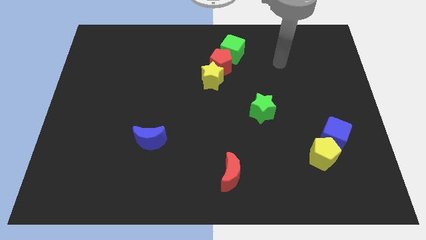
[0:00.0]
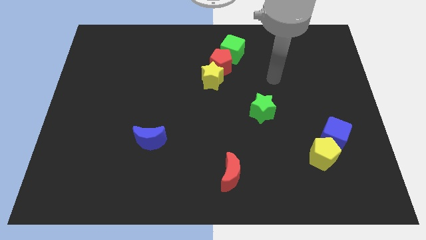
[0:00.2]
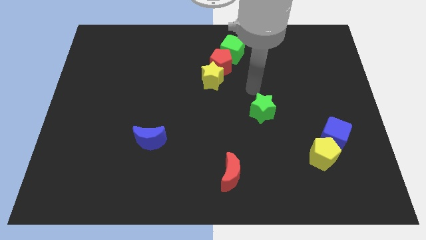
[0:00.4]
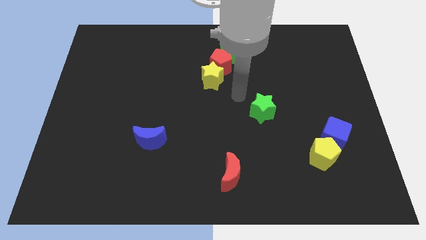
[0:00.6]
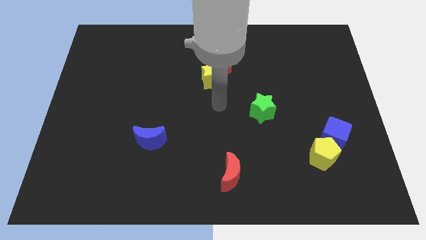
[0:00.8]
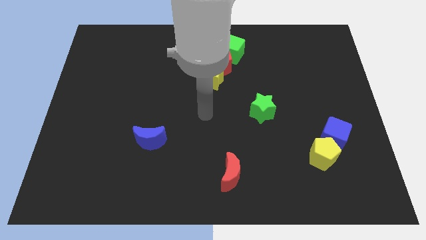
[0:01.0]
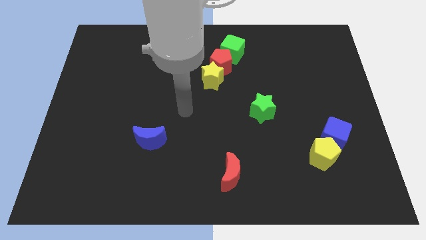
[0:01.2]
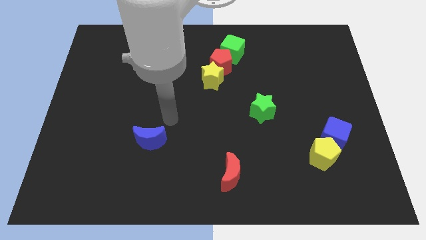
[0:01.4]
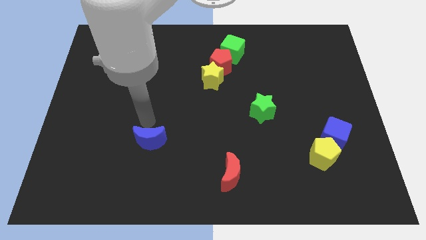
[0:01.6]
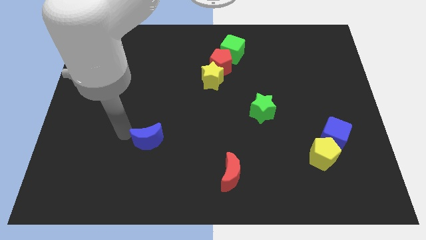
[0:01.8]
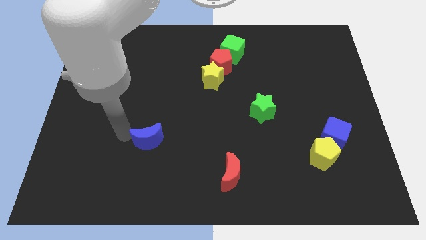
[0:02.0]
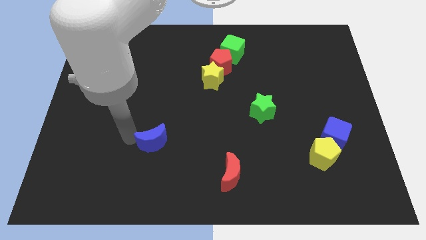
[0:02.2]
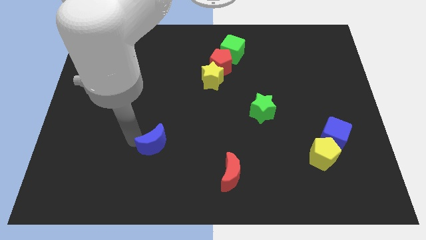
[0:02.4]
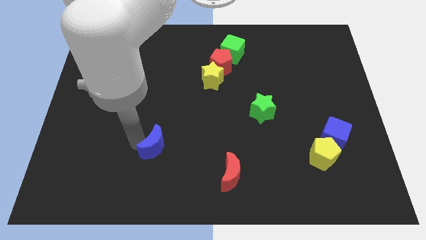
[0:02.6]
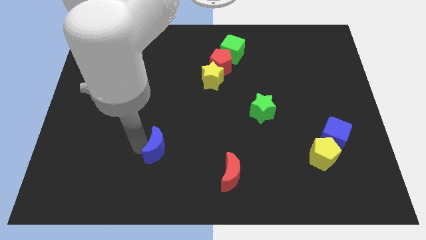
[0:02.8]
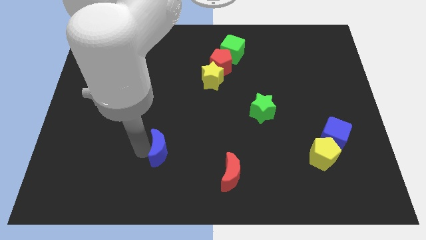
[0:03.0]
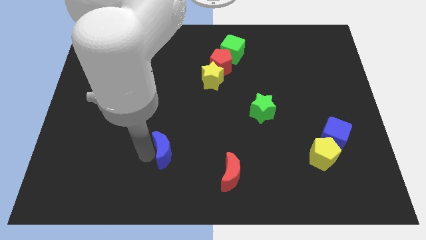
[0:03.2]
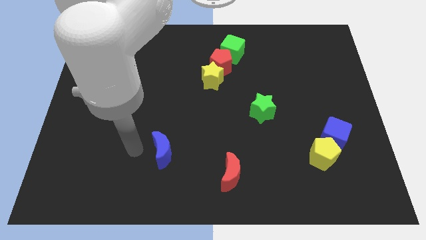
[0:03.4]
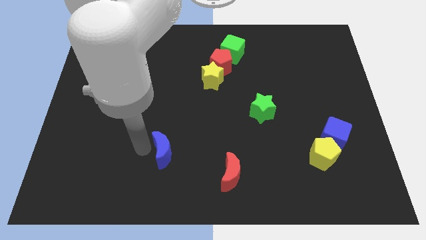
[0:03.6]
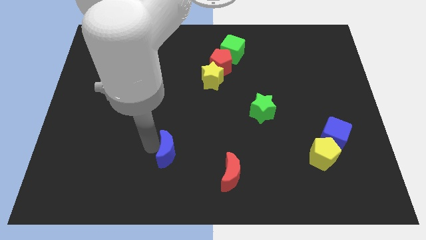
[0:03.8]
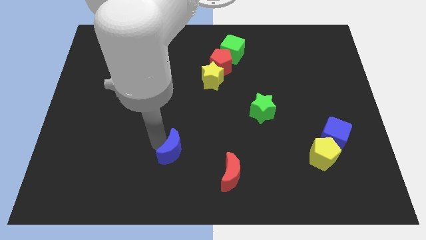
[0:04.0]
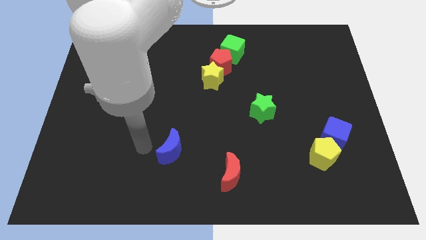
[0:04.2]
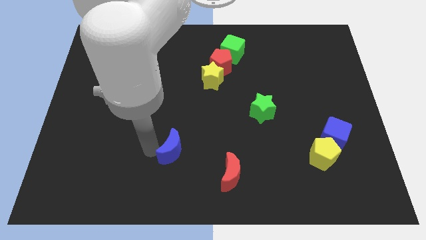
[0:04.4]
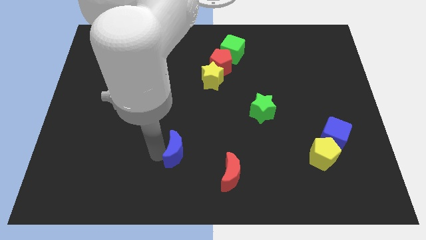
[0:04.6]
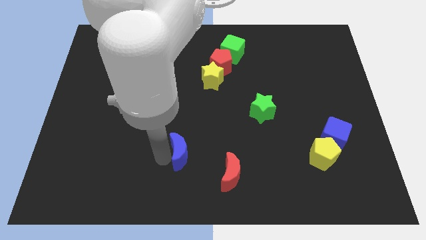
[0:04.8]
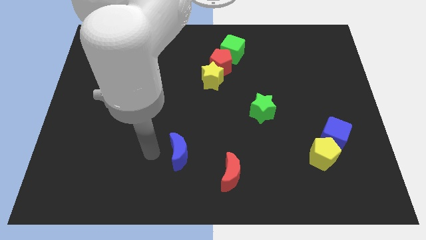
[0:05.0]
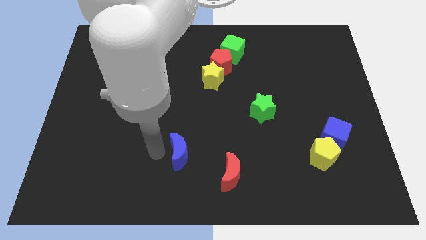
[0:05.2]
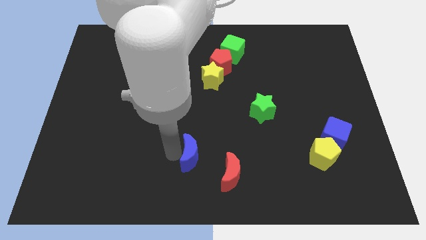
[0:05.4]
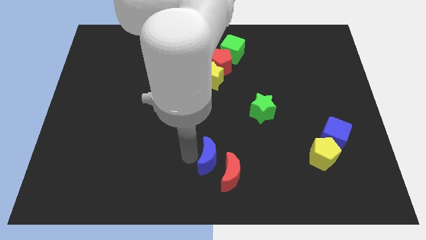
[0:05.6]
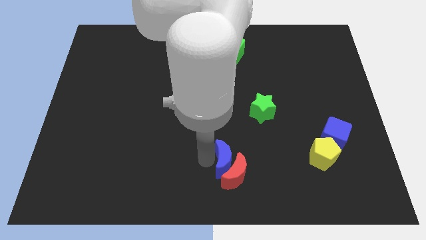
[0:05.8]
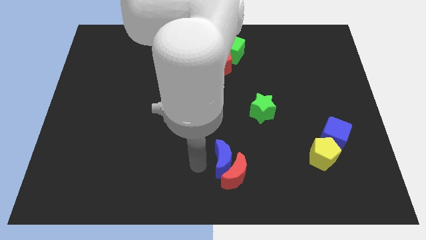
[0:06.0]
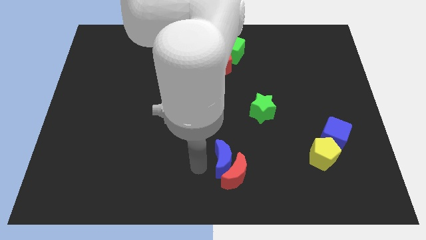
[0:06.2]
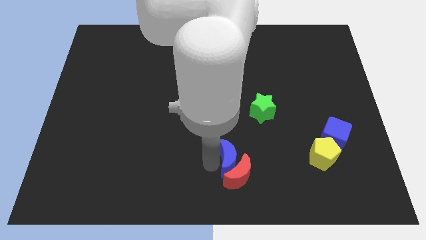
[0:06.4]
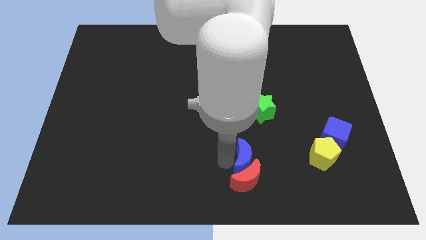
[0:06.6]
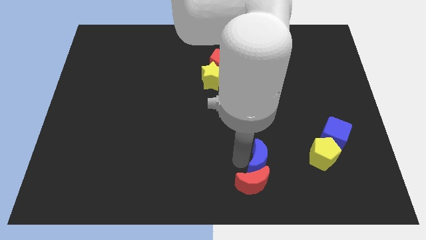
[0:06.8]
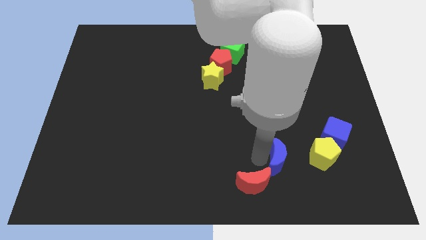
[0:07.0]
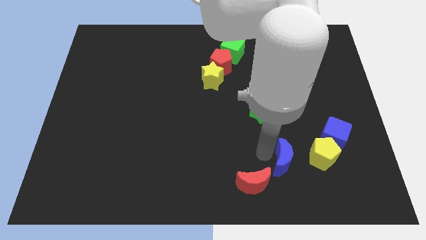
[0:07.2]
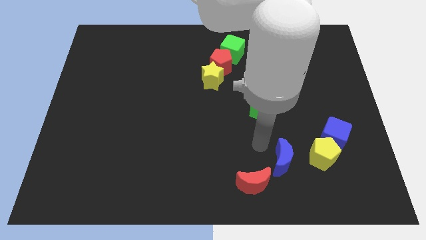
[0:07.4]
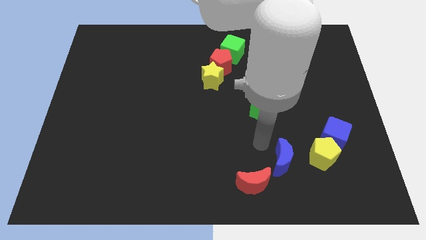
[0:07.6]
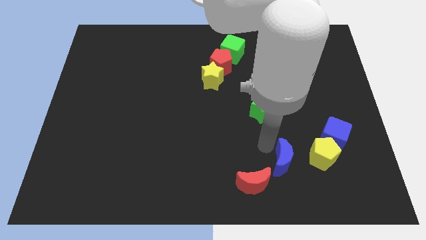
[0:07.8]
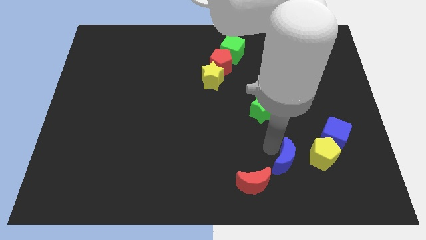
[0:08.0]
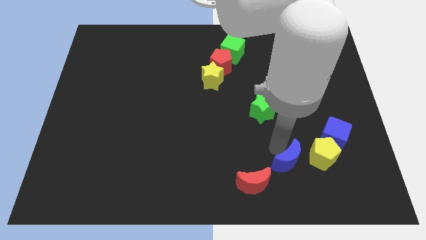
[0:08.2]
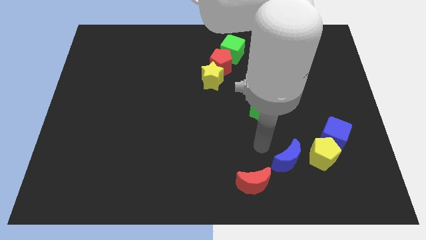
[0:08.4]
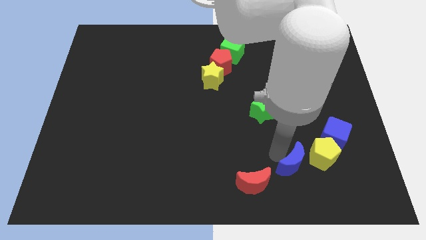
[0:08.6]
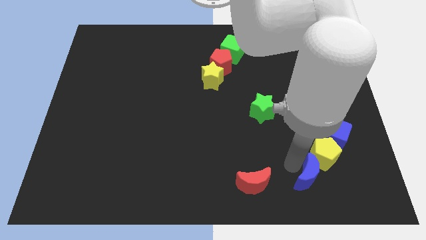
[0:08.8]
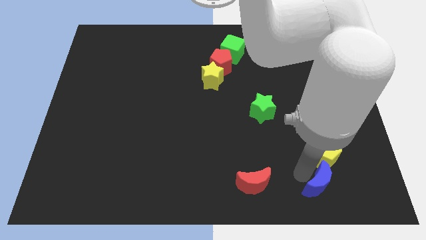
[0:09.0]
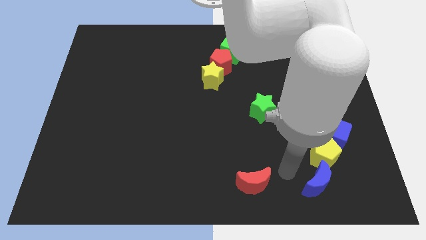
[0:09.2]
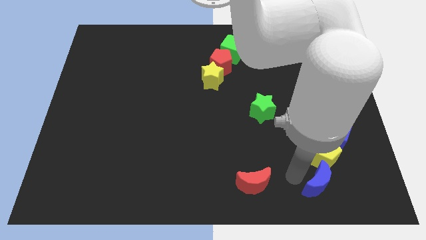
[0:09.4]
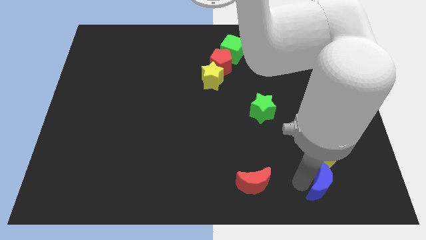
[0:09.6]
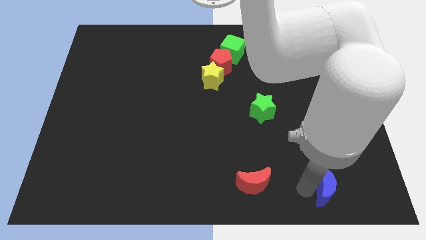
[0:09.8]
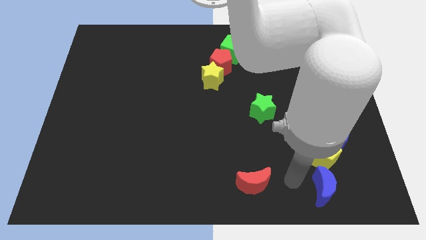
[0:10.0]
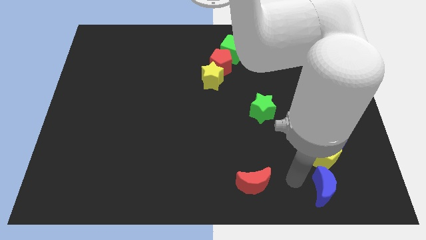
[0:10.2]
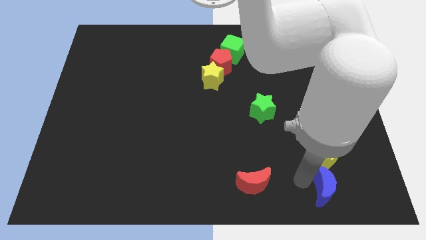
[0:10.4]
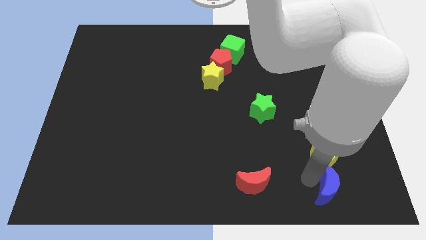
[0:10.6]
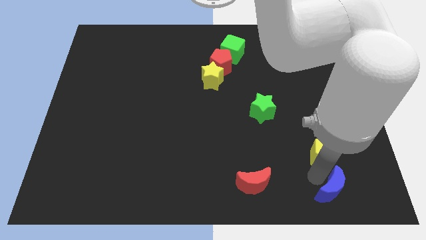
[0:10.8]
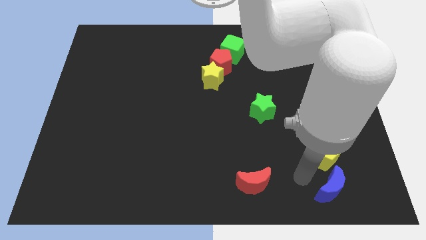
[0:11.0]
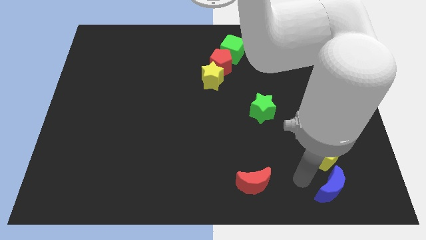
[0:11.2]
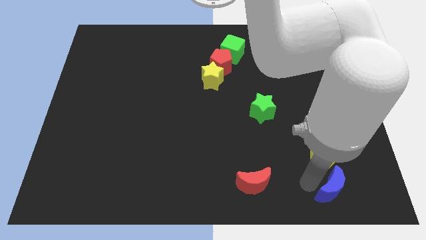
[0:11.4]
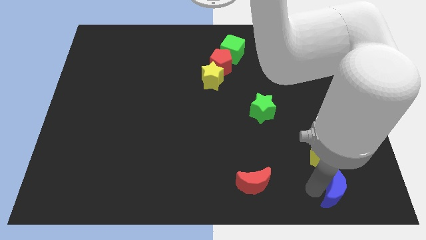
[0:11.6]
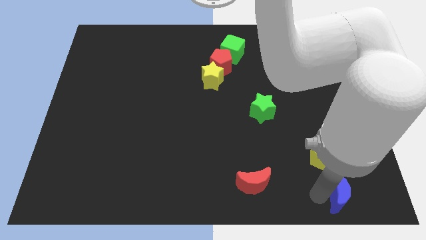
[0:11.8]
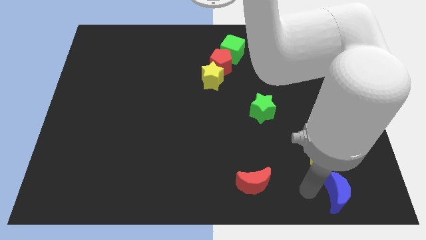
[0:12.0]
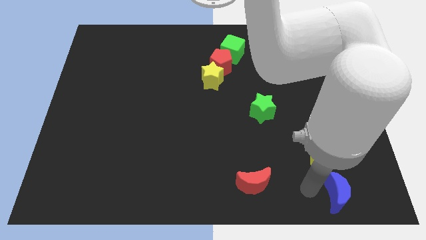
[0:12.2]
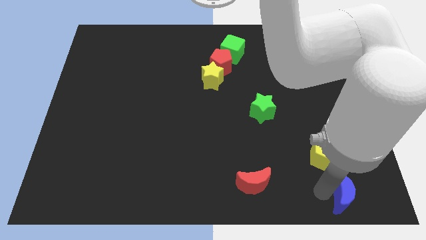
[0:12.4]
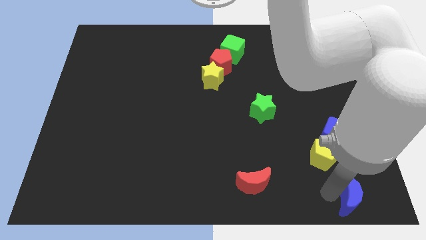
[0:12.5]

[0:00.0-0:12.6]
move the blue moon to the lower right corner
